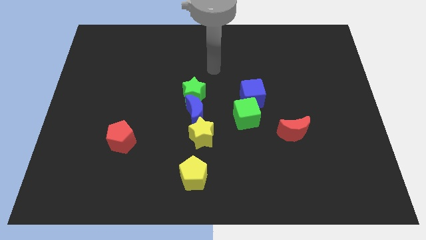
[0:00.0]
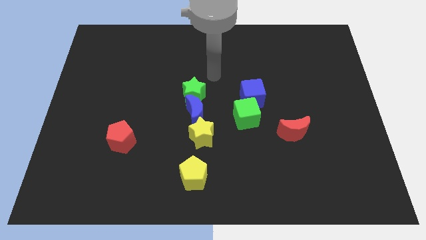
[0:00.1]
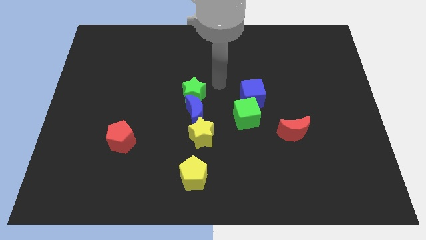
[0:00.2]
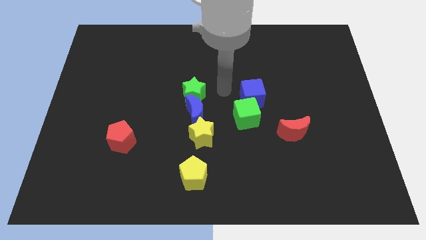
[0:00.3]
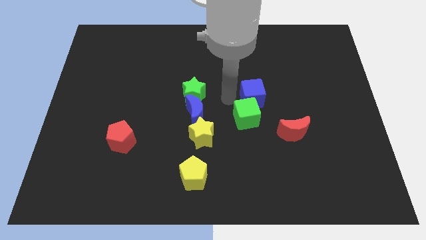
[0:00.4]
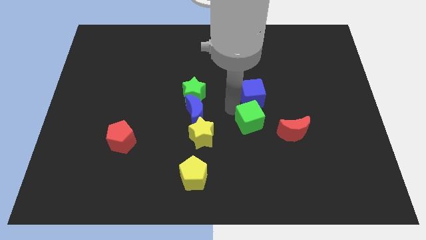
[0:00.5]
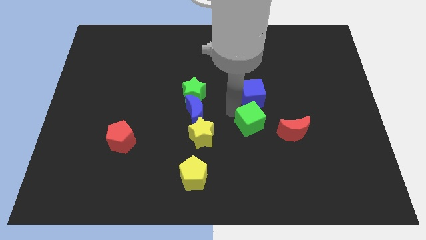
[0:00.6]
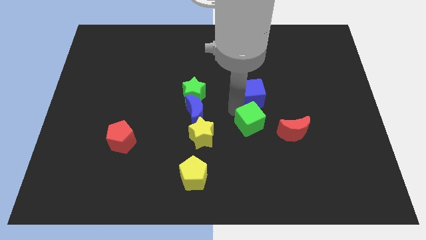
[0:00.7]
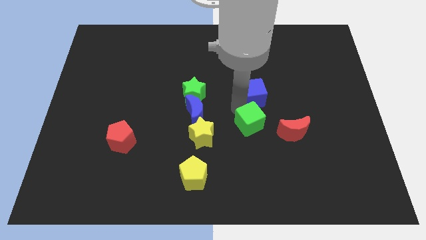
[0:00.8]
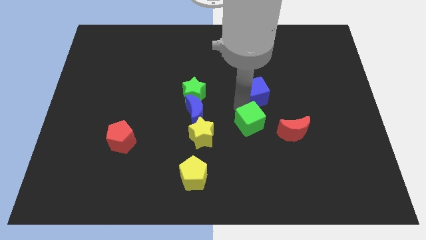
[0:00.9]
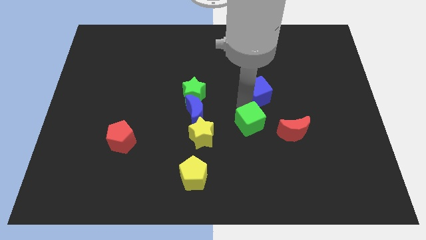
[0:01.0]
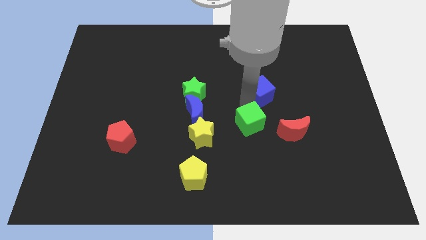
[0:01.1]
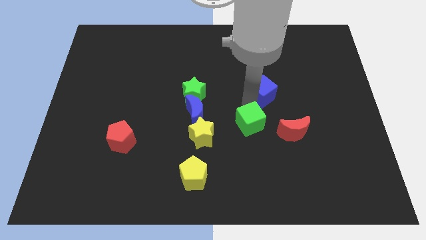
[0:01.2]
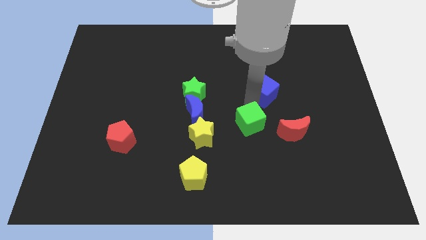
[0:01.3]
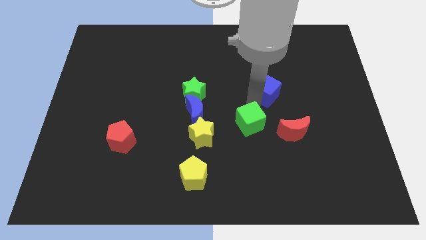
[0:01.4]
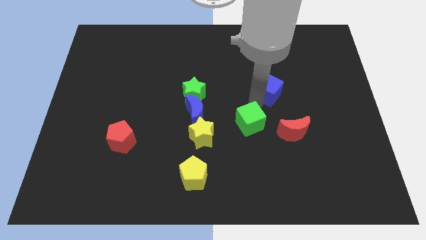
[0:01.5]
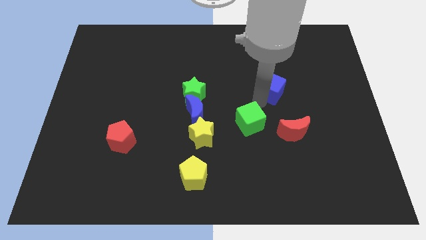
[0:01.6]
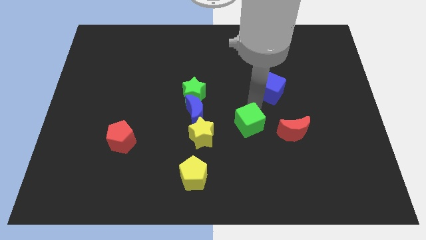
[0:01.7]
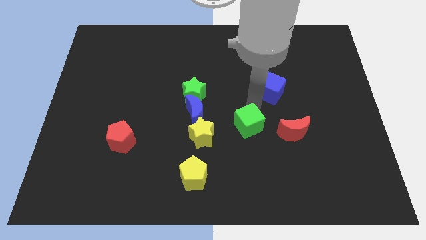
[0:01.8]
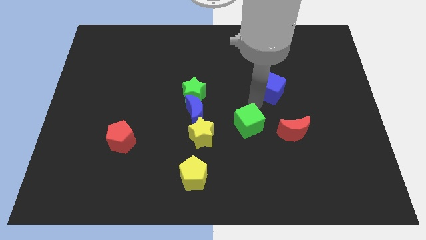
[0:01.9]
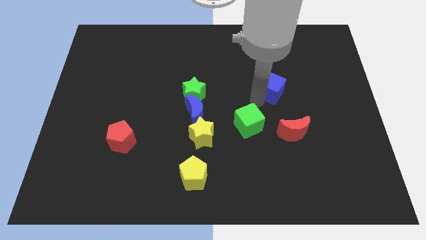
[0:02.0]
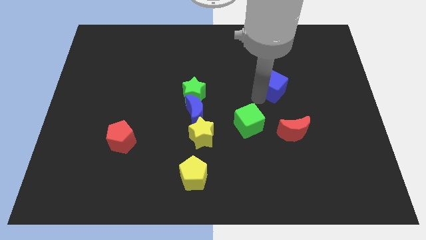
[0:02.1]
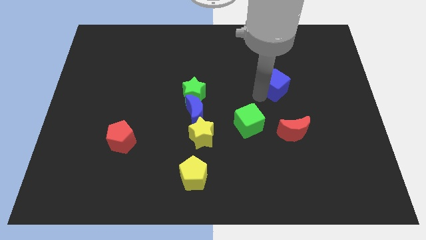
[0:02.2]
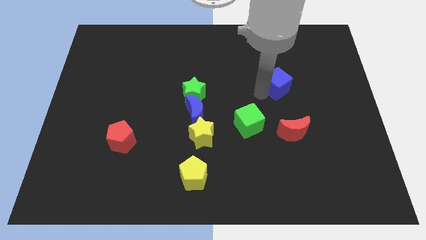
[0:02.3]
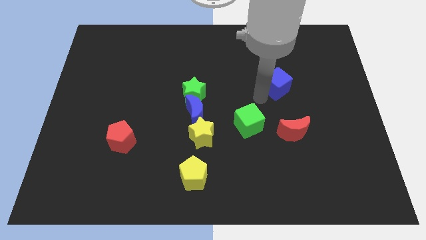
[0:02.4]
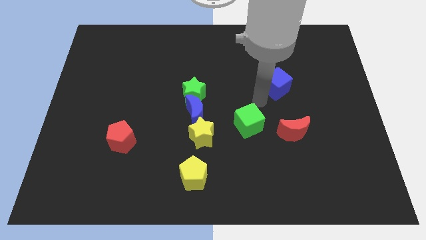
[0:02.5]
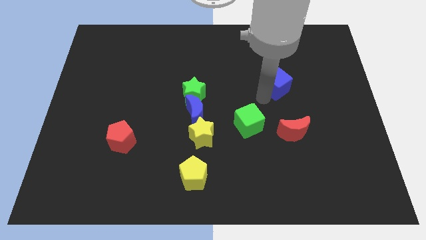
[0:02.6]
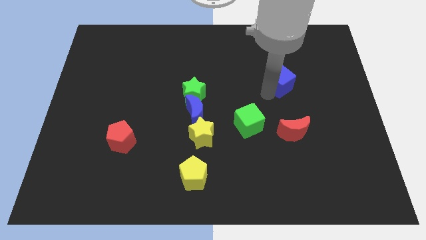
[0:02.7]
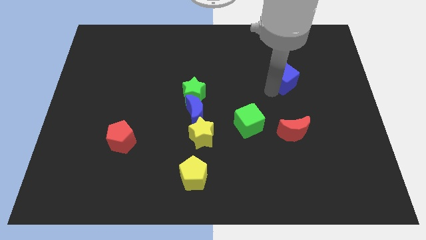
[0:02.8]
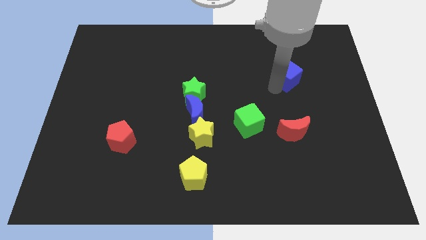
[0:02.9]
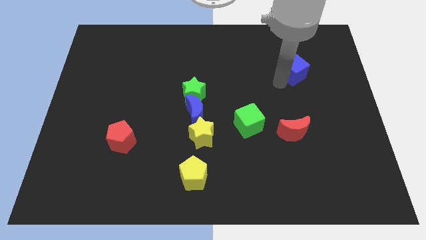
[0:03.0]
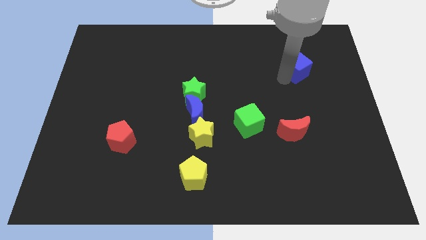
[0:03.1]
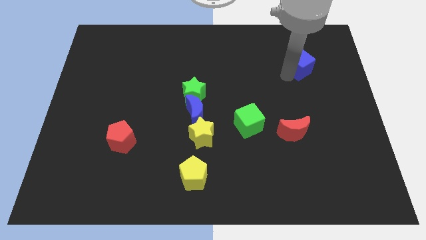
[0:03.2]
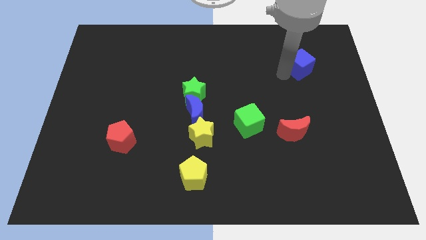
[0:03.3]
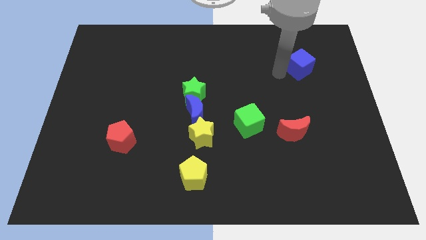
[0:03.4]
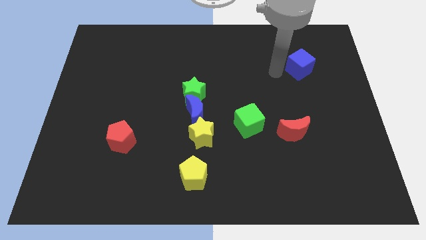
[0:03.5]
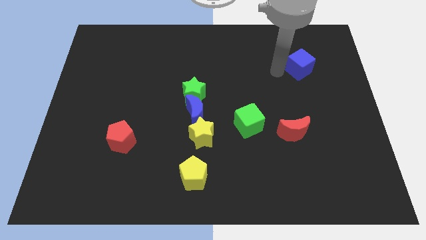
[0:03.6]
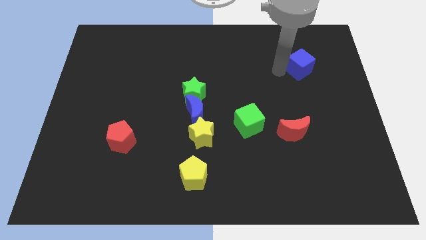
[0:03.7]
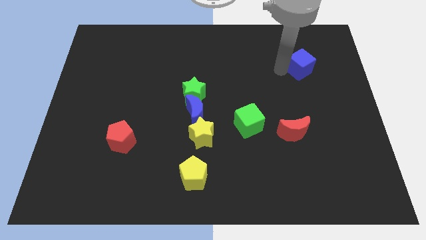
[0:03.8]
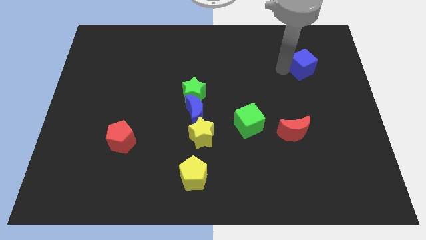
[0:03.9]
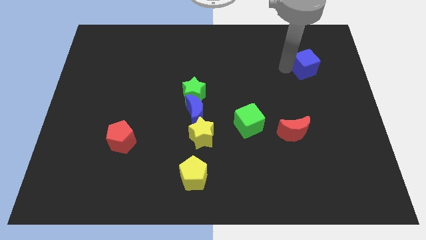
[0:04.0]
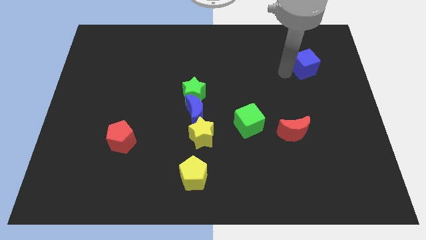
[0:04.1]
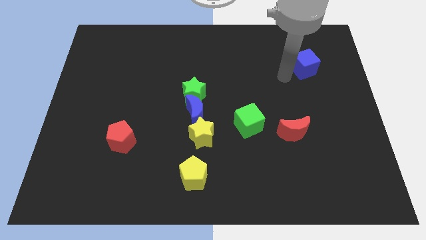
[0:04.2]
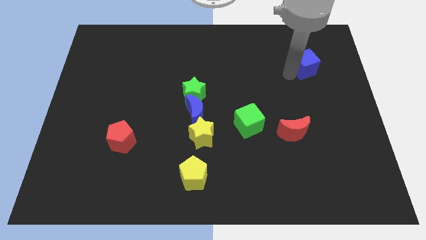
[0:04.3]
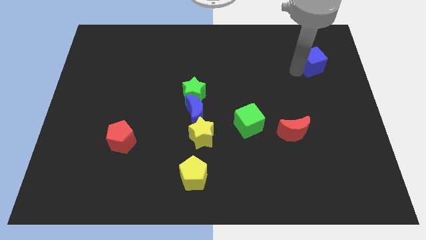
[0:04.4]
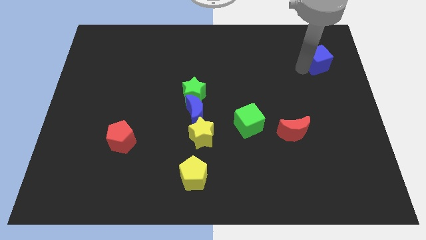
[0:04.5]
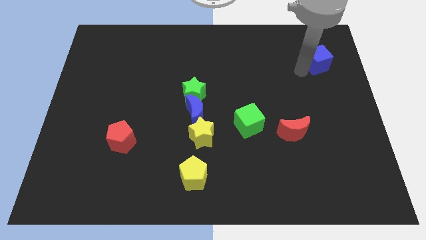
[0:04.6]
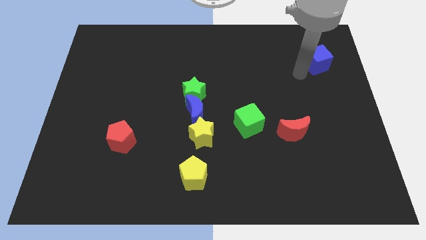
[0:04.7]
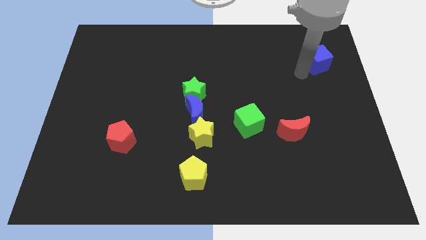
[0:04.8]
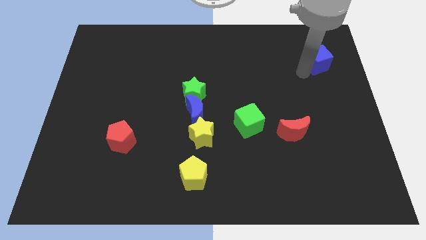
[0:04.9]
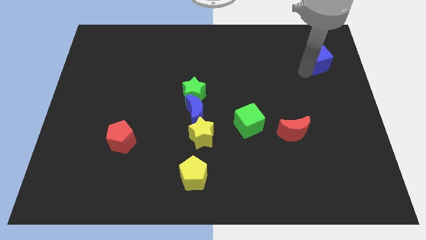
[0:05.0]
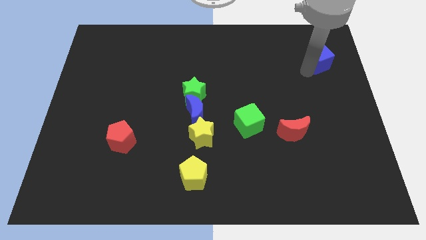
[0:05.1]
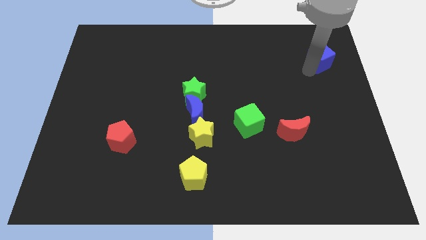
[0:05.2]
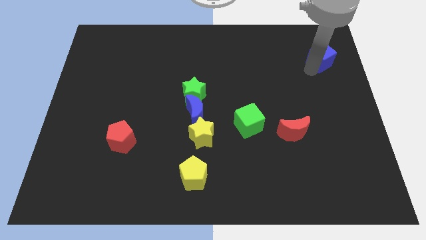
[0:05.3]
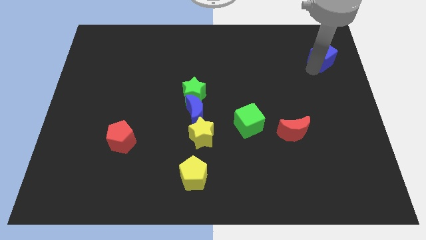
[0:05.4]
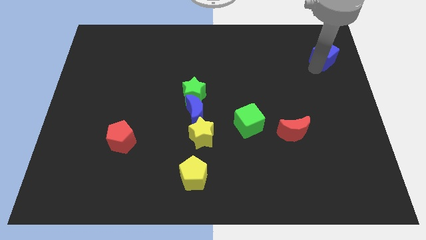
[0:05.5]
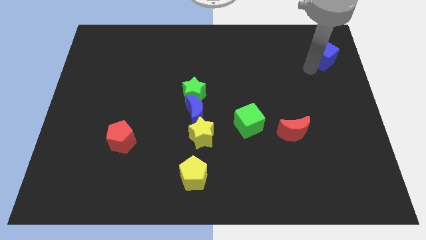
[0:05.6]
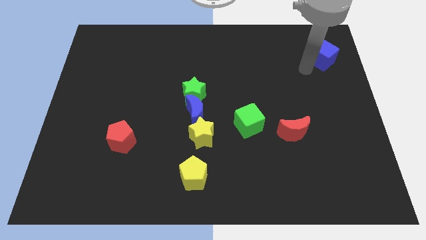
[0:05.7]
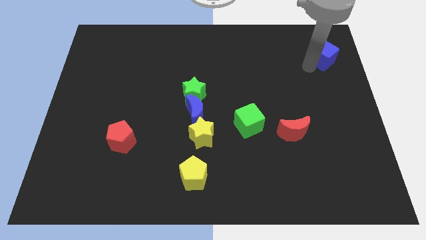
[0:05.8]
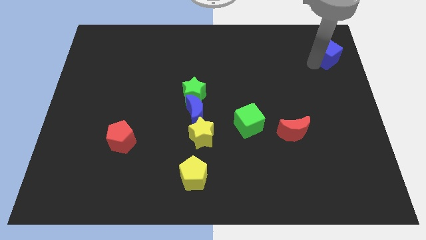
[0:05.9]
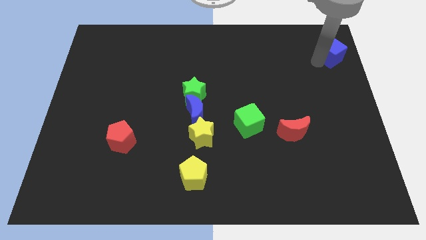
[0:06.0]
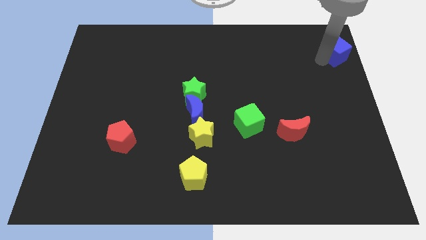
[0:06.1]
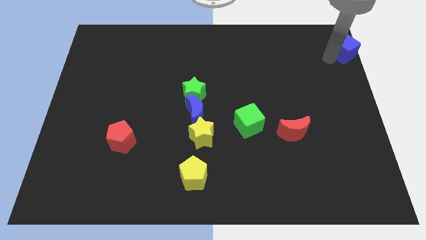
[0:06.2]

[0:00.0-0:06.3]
push the blue cube to the top right

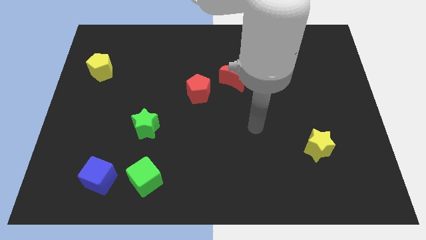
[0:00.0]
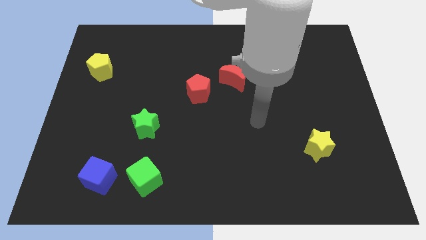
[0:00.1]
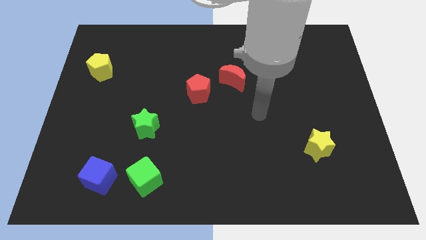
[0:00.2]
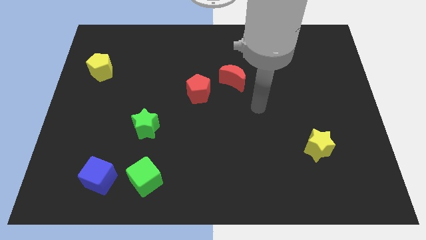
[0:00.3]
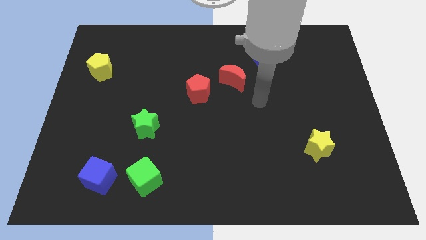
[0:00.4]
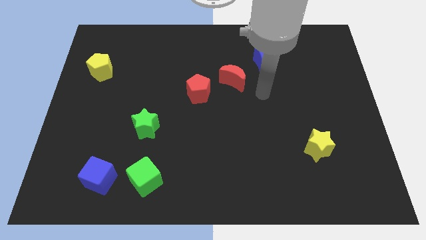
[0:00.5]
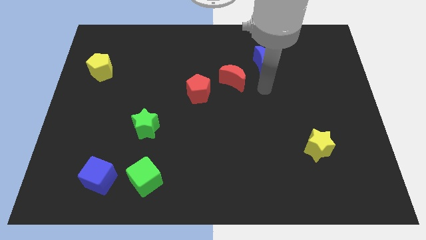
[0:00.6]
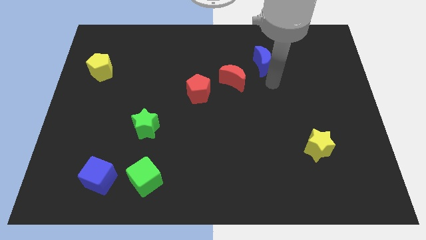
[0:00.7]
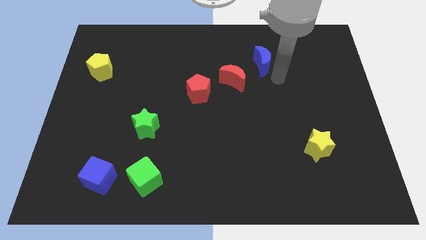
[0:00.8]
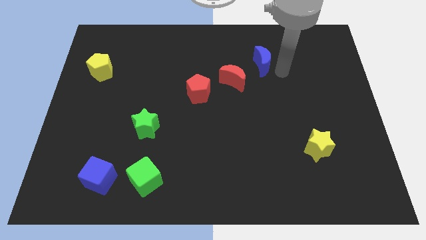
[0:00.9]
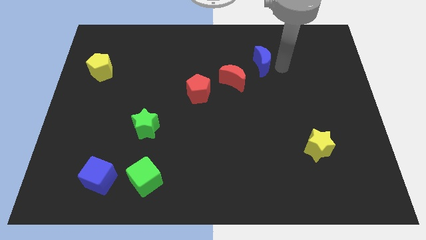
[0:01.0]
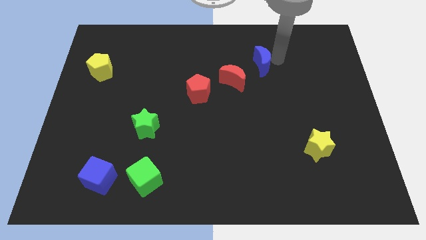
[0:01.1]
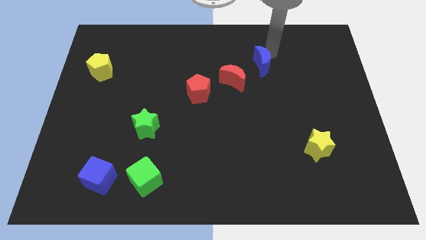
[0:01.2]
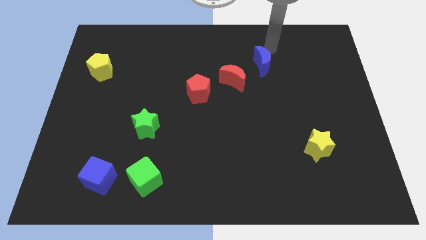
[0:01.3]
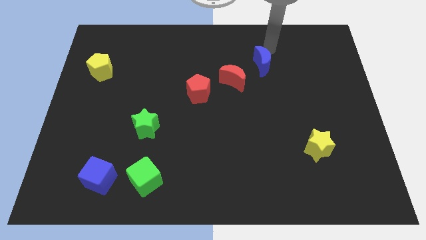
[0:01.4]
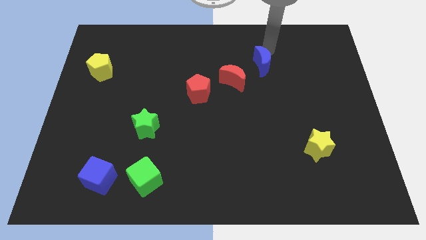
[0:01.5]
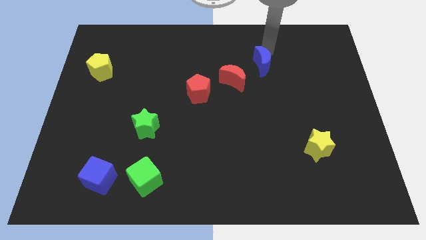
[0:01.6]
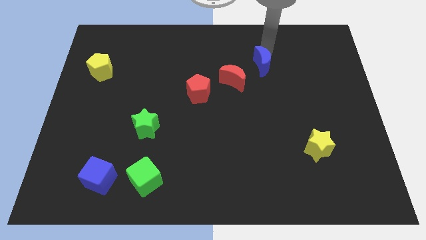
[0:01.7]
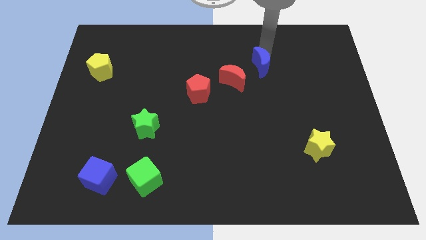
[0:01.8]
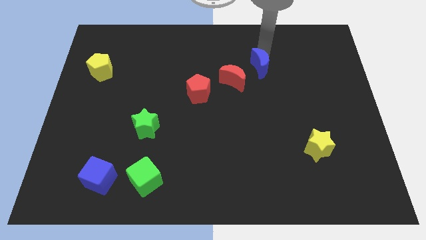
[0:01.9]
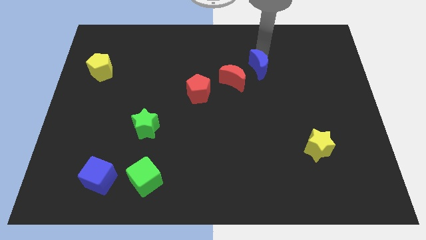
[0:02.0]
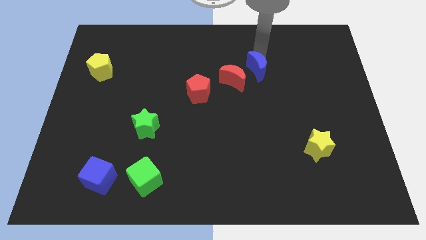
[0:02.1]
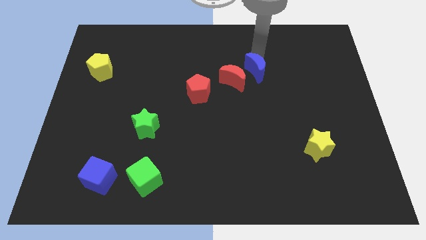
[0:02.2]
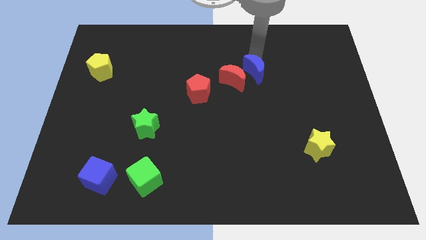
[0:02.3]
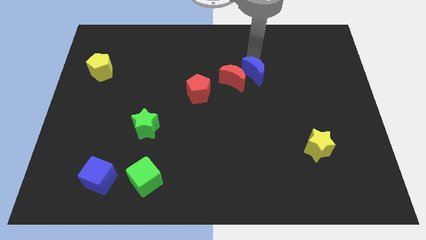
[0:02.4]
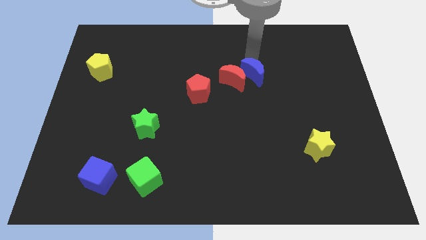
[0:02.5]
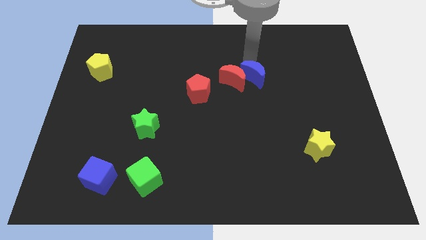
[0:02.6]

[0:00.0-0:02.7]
move the blue moon to the center
